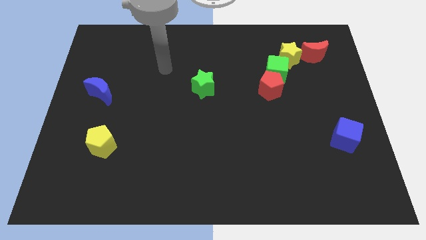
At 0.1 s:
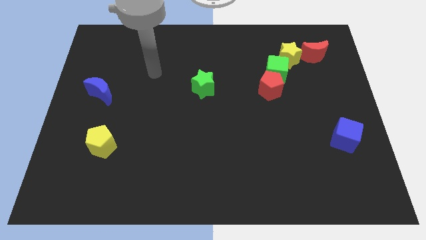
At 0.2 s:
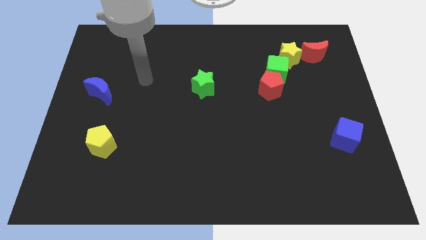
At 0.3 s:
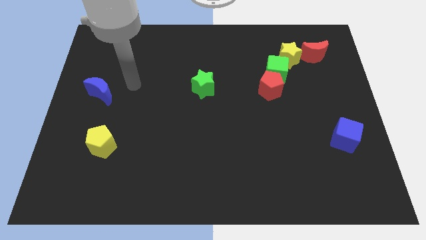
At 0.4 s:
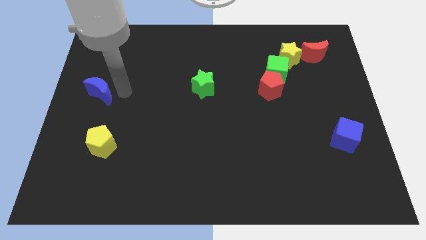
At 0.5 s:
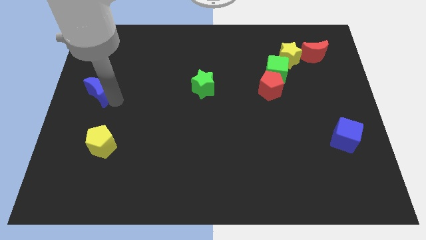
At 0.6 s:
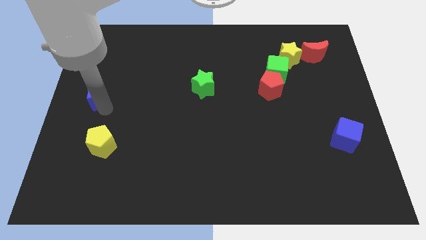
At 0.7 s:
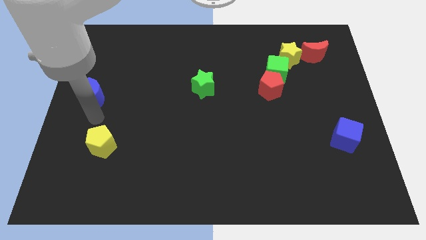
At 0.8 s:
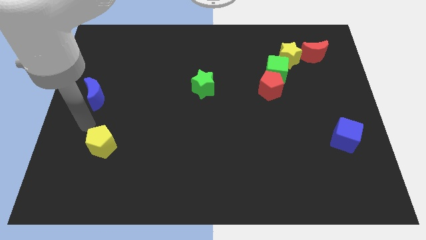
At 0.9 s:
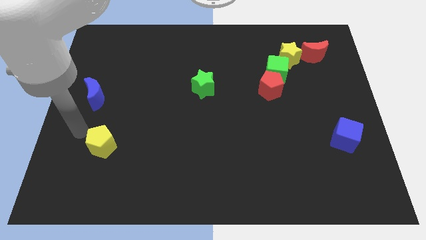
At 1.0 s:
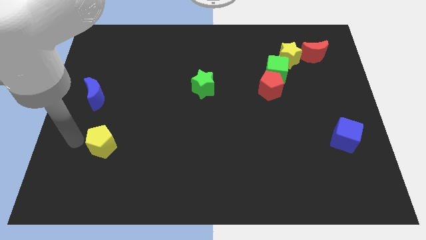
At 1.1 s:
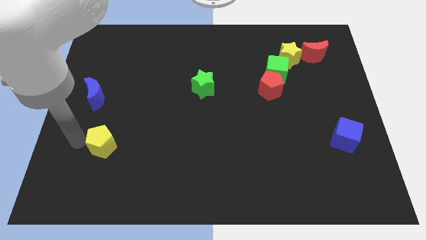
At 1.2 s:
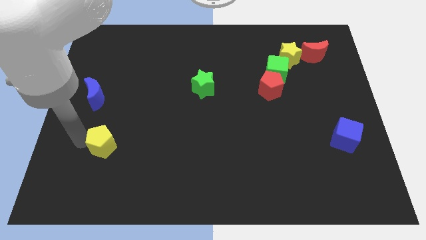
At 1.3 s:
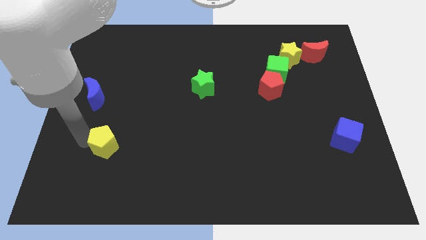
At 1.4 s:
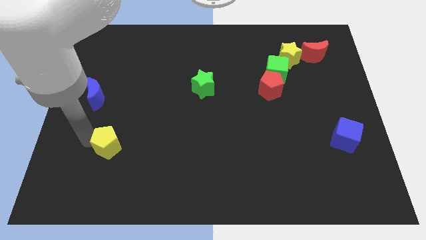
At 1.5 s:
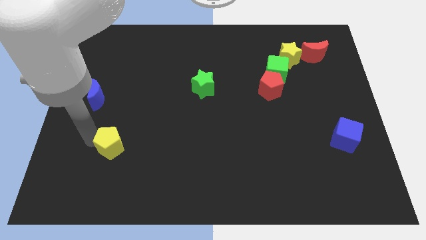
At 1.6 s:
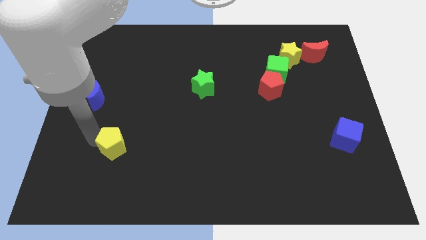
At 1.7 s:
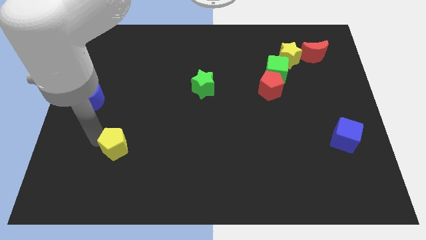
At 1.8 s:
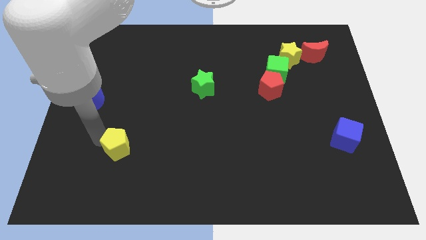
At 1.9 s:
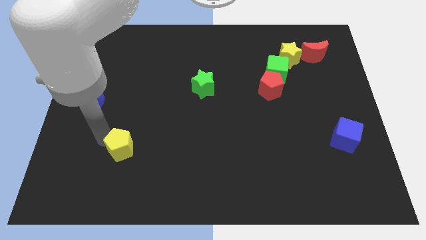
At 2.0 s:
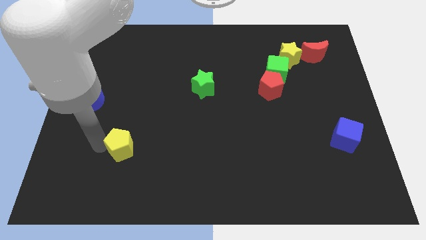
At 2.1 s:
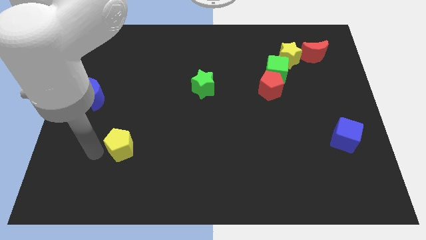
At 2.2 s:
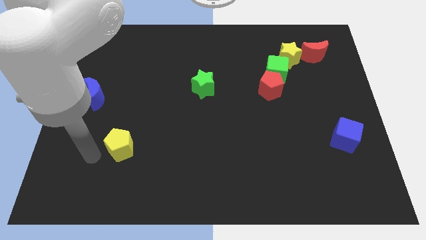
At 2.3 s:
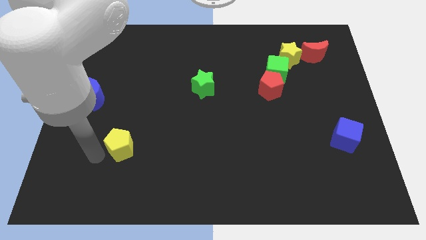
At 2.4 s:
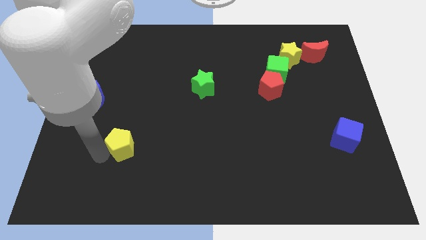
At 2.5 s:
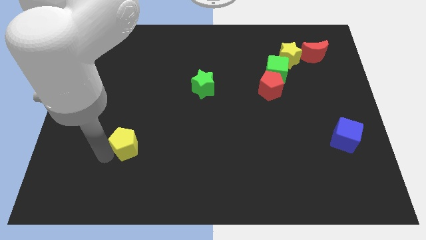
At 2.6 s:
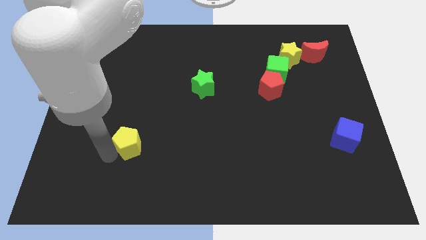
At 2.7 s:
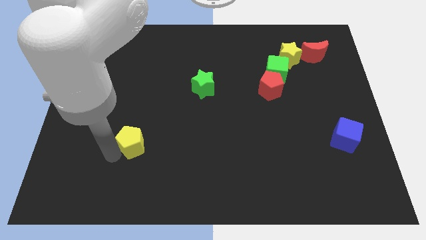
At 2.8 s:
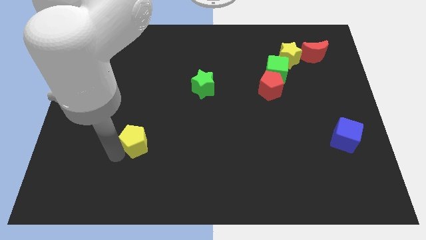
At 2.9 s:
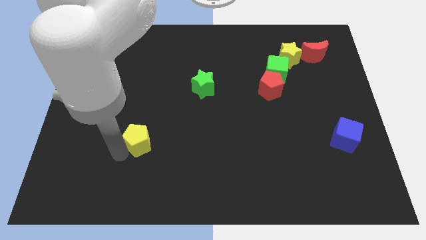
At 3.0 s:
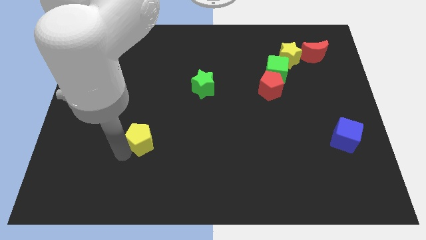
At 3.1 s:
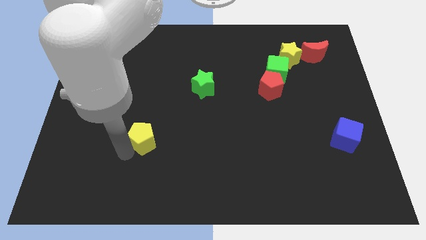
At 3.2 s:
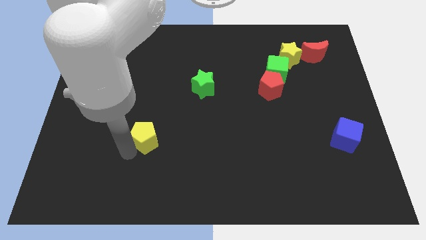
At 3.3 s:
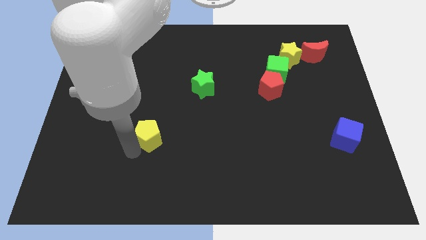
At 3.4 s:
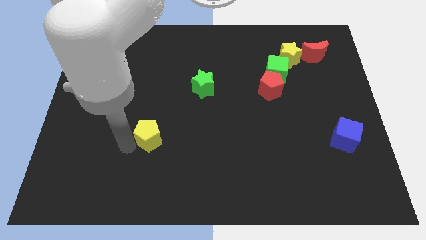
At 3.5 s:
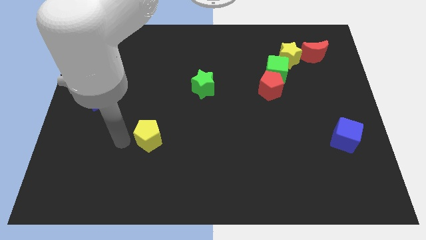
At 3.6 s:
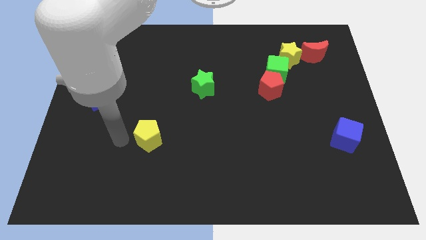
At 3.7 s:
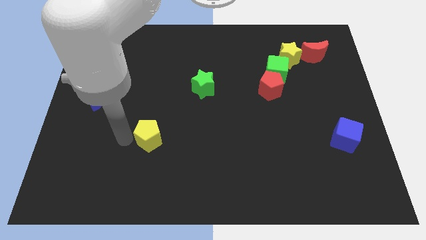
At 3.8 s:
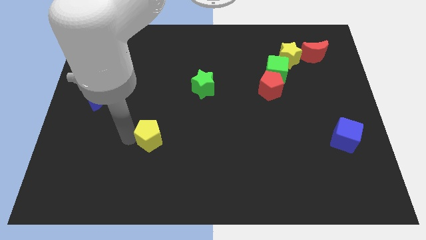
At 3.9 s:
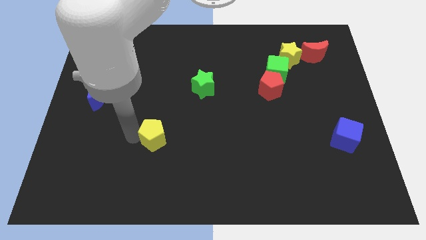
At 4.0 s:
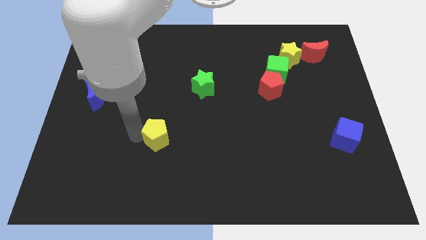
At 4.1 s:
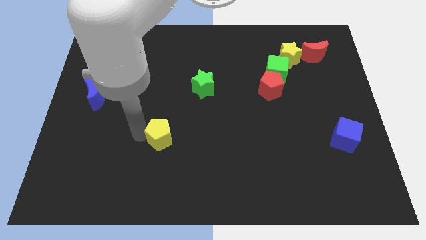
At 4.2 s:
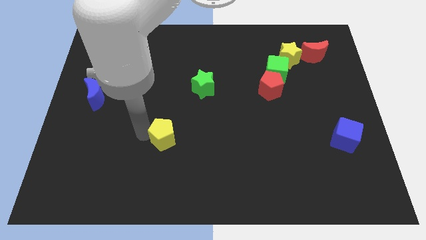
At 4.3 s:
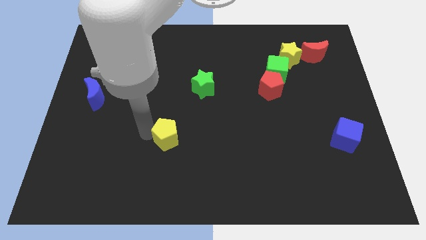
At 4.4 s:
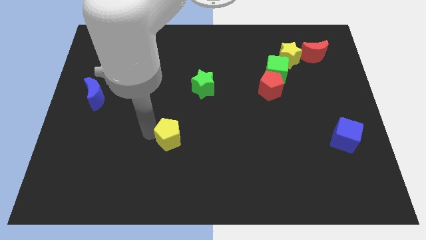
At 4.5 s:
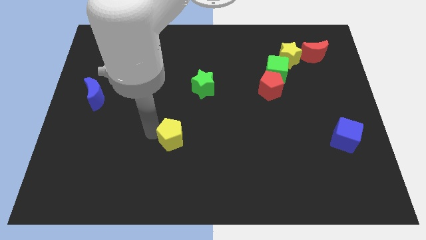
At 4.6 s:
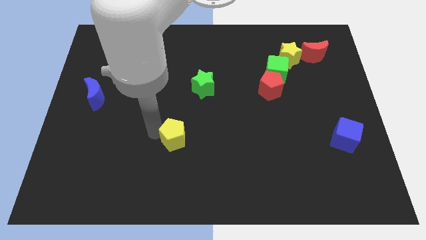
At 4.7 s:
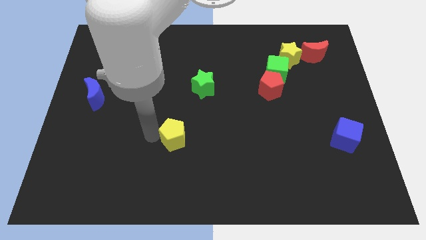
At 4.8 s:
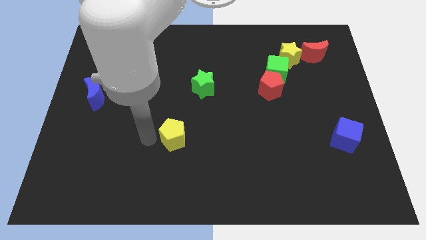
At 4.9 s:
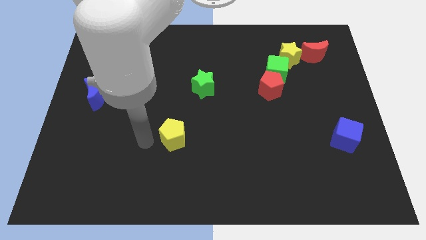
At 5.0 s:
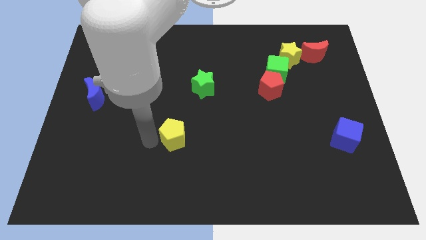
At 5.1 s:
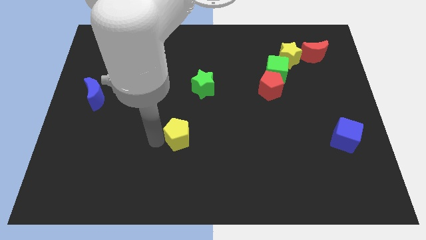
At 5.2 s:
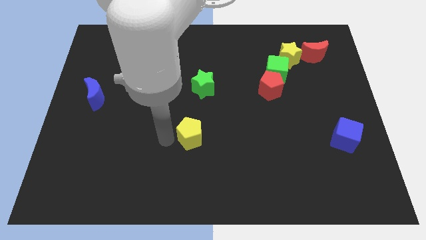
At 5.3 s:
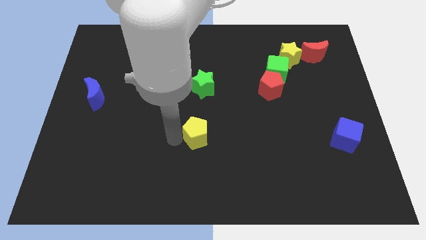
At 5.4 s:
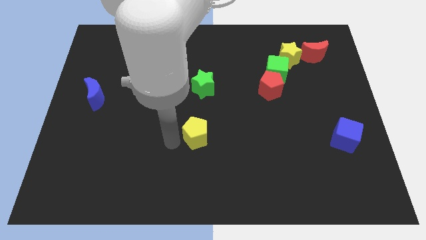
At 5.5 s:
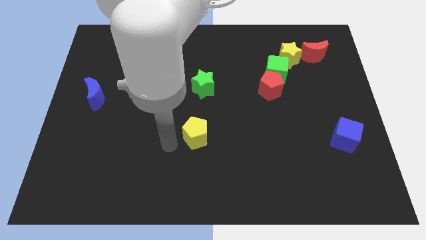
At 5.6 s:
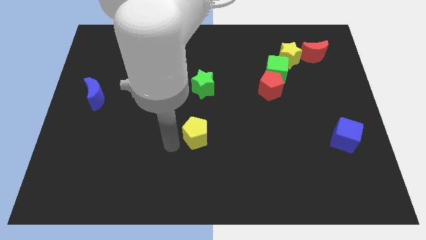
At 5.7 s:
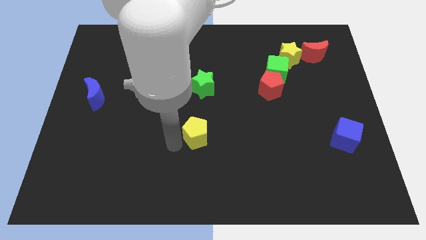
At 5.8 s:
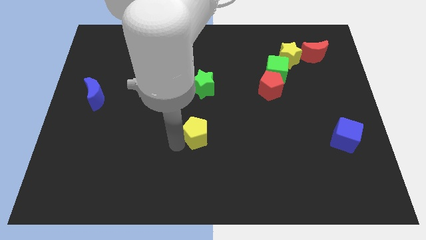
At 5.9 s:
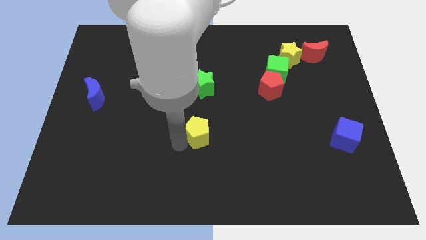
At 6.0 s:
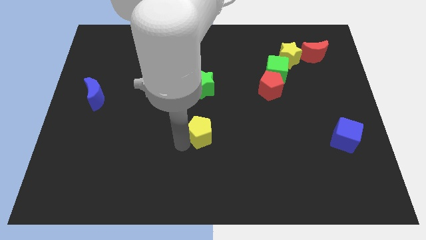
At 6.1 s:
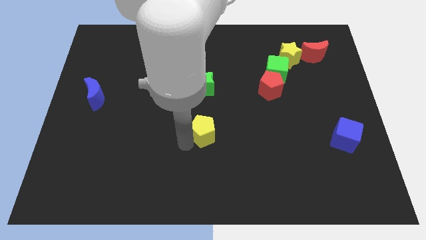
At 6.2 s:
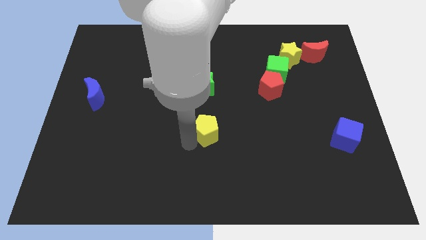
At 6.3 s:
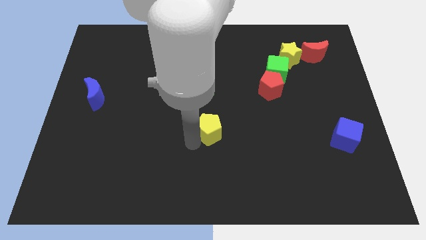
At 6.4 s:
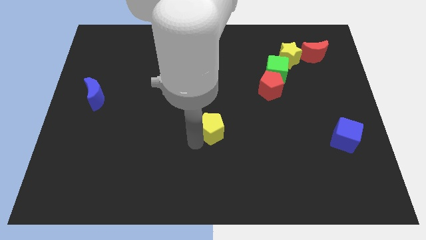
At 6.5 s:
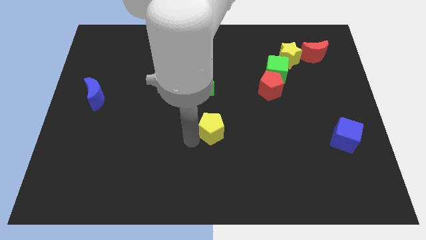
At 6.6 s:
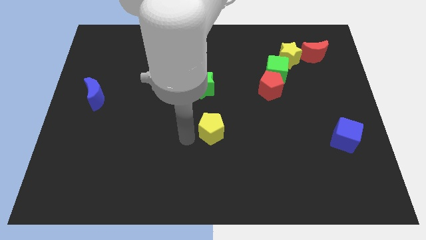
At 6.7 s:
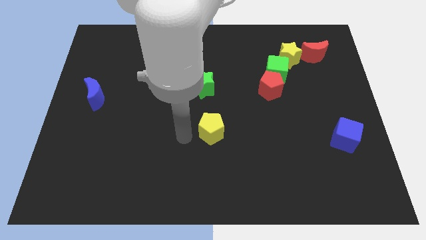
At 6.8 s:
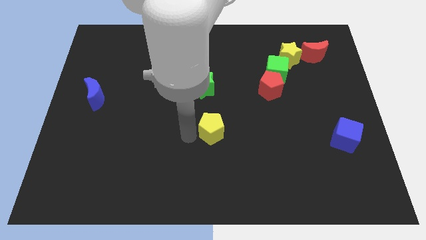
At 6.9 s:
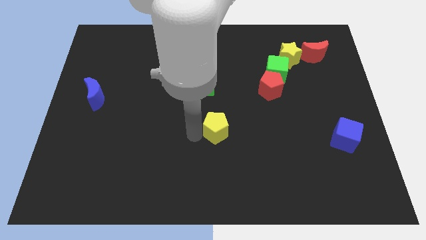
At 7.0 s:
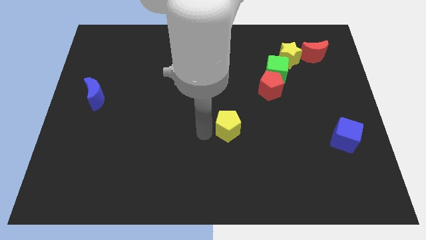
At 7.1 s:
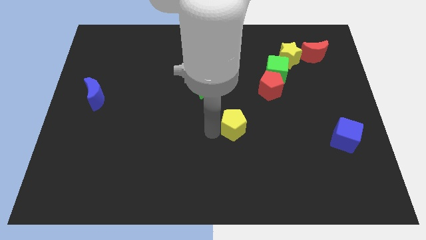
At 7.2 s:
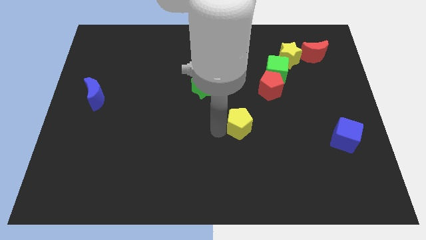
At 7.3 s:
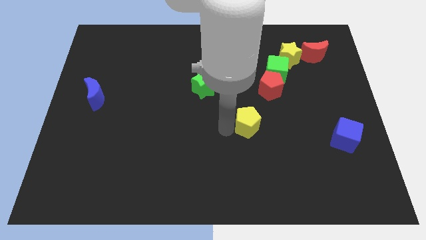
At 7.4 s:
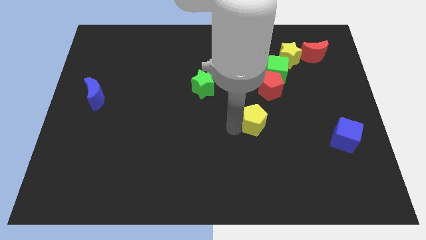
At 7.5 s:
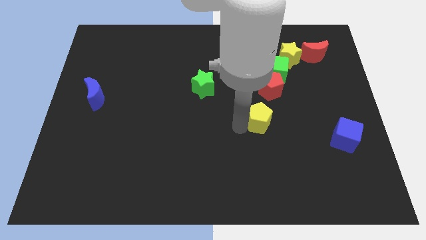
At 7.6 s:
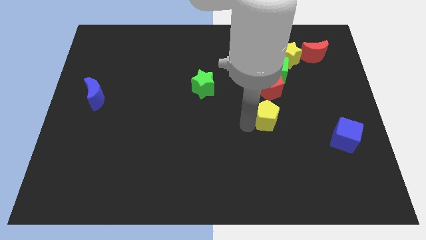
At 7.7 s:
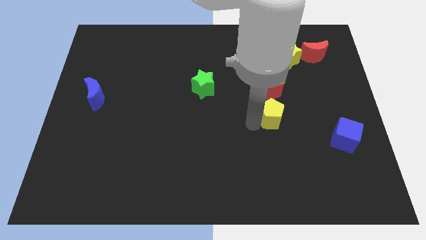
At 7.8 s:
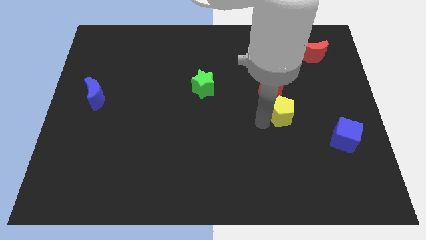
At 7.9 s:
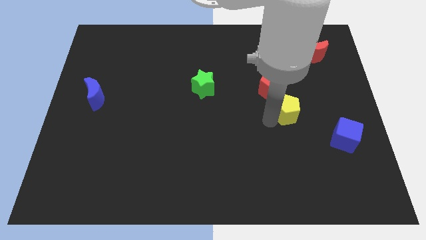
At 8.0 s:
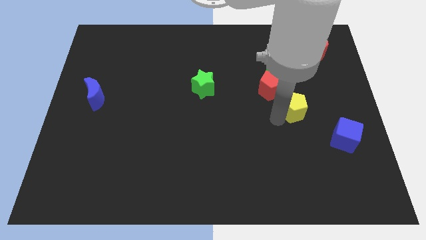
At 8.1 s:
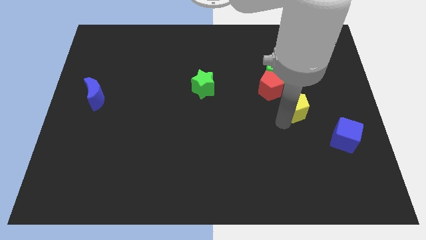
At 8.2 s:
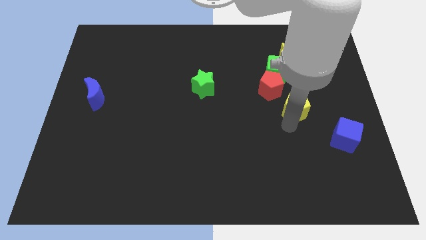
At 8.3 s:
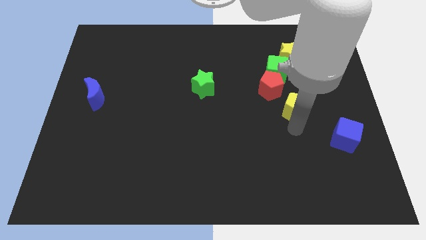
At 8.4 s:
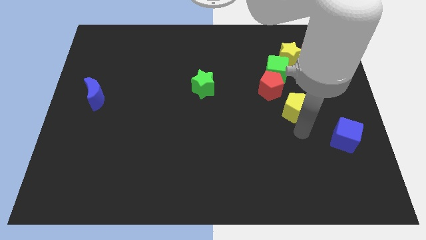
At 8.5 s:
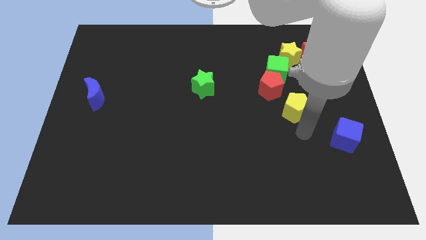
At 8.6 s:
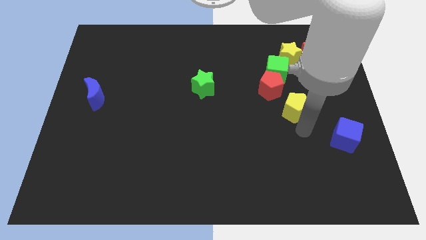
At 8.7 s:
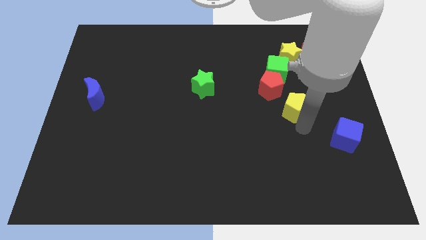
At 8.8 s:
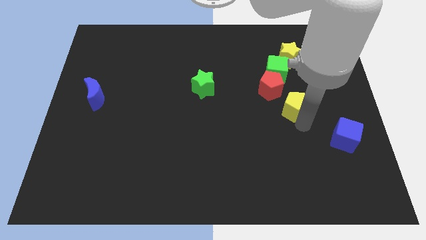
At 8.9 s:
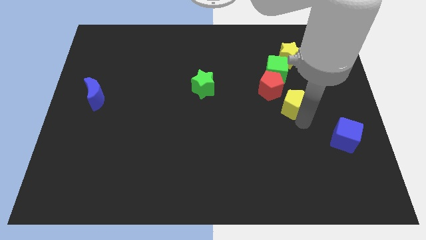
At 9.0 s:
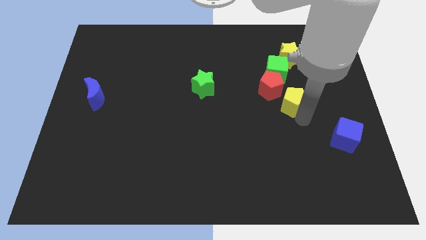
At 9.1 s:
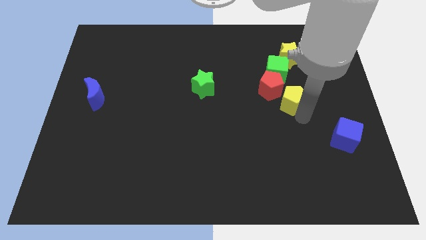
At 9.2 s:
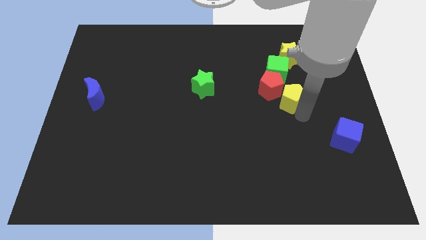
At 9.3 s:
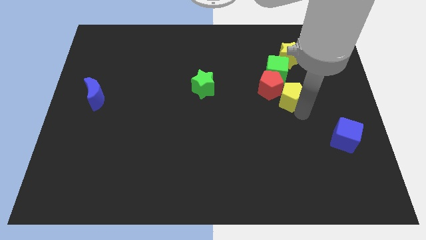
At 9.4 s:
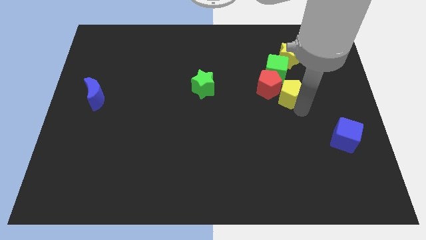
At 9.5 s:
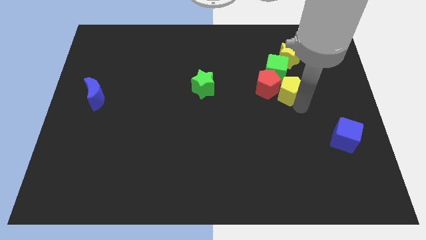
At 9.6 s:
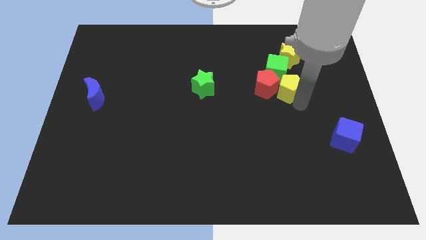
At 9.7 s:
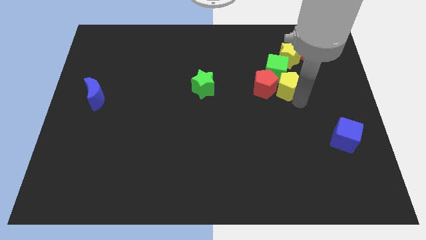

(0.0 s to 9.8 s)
move the yellow pentagon to the green cube
